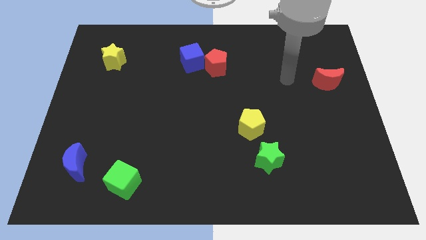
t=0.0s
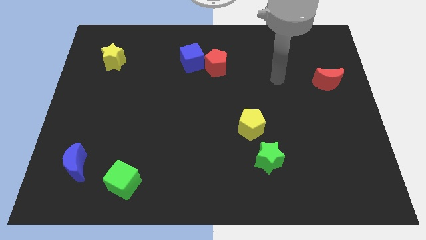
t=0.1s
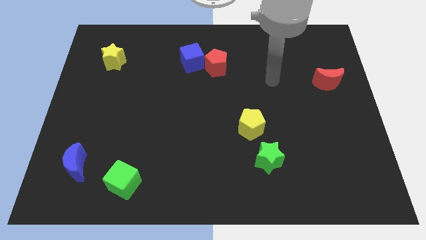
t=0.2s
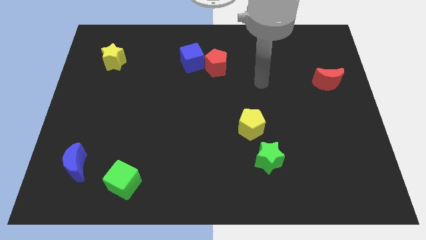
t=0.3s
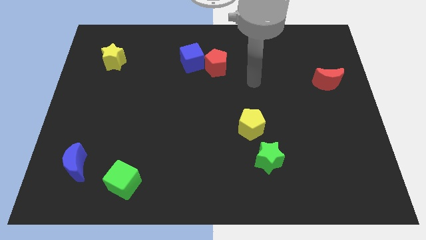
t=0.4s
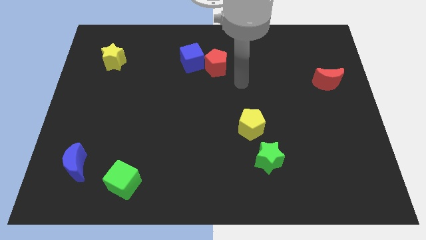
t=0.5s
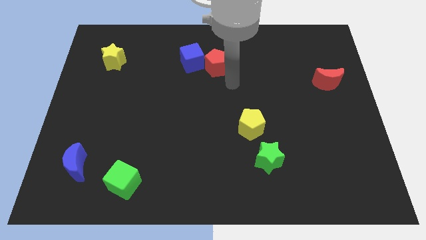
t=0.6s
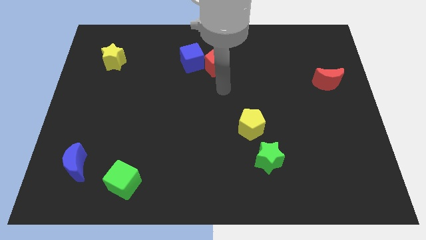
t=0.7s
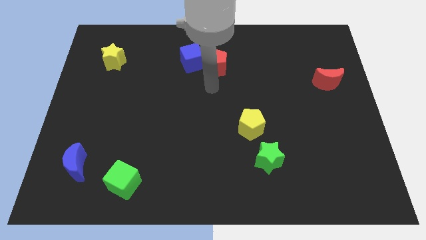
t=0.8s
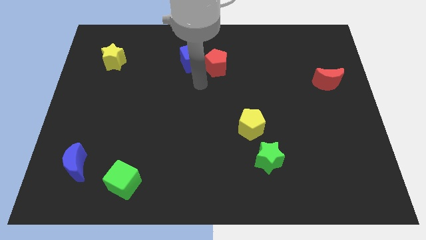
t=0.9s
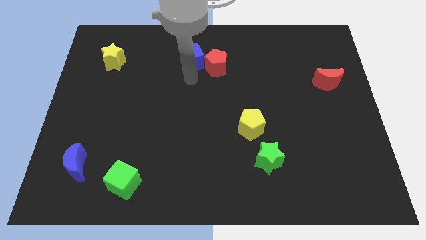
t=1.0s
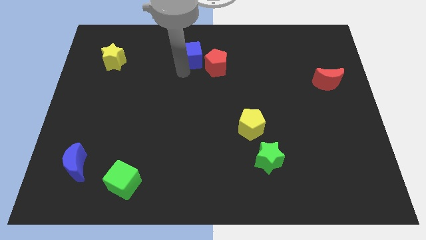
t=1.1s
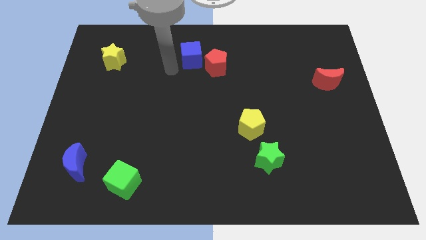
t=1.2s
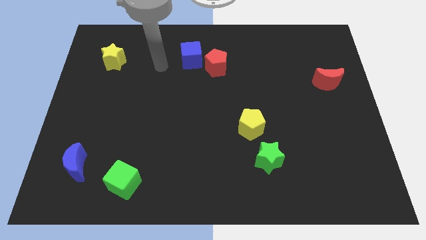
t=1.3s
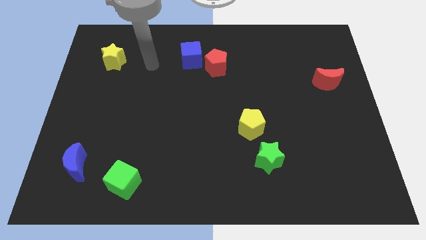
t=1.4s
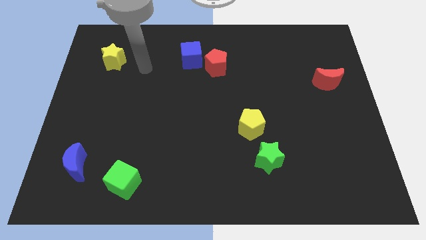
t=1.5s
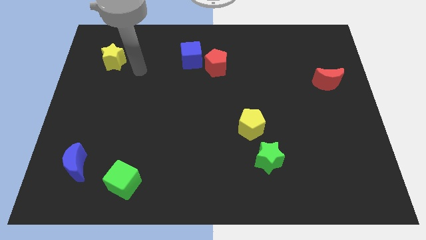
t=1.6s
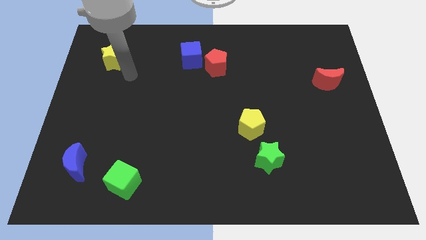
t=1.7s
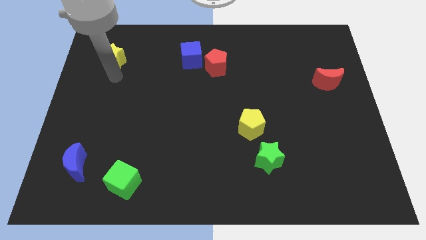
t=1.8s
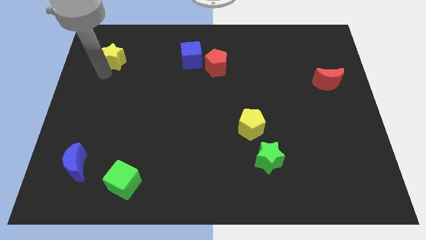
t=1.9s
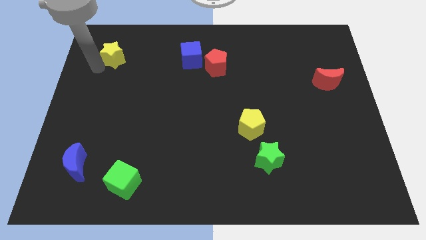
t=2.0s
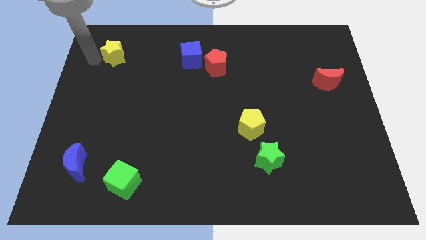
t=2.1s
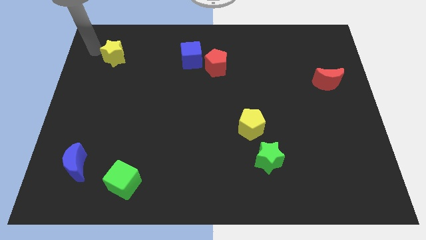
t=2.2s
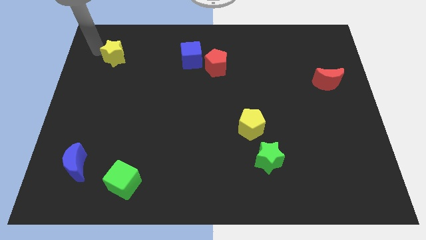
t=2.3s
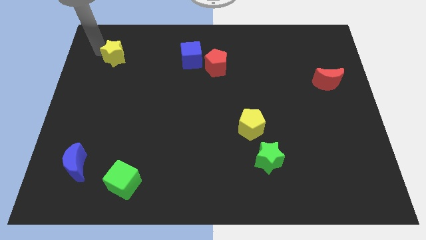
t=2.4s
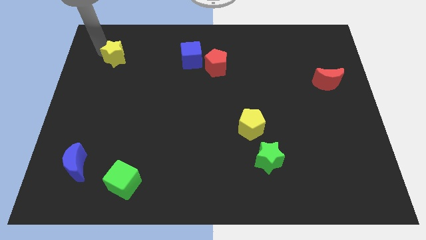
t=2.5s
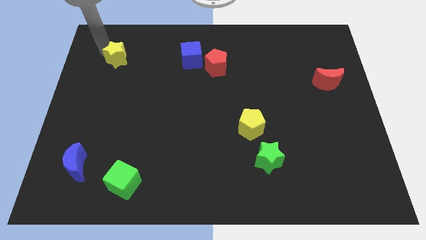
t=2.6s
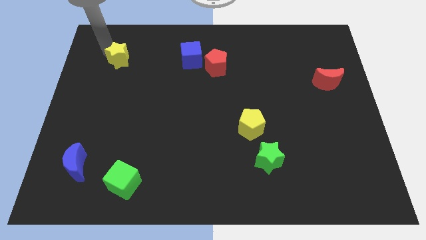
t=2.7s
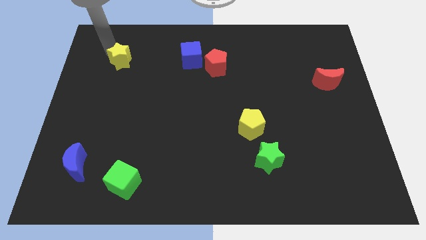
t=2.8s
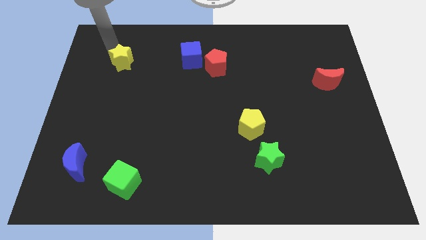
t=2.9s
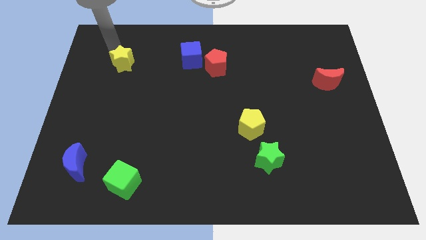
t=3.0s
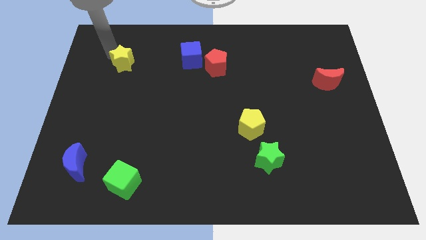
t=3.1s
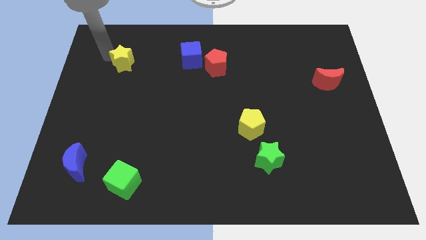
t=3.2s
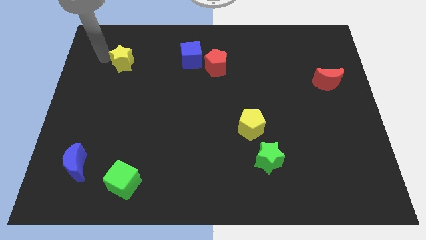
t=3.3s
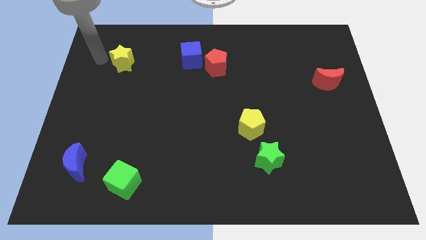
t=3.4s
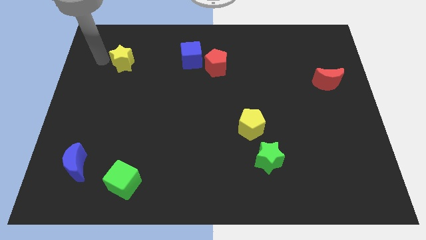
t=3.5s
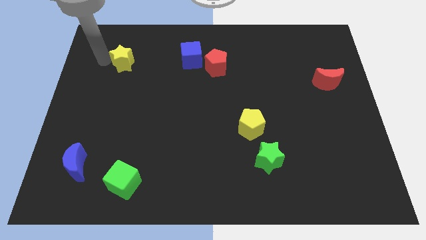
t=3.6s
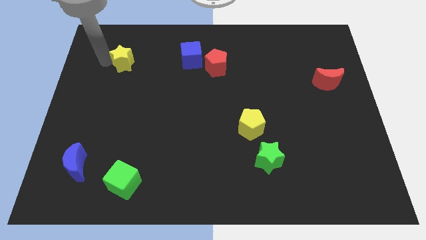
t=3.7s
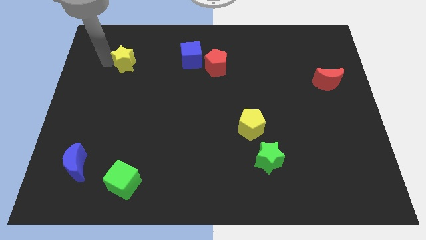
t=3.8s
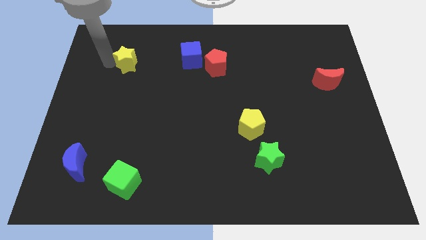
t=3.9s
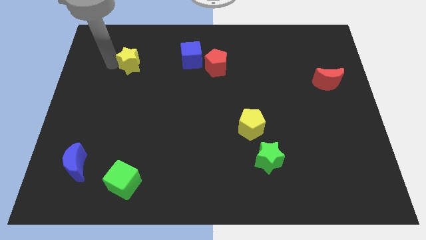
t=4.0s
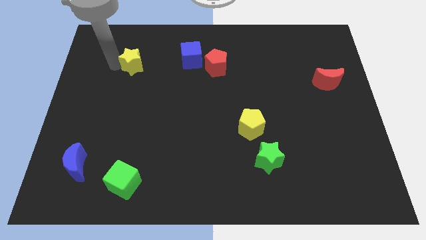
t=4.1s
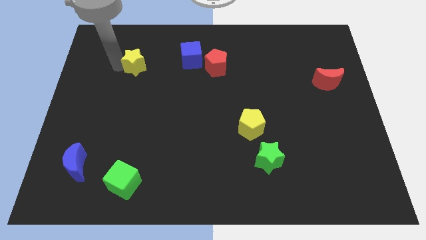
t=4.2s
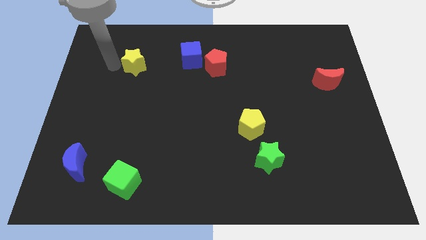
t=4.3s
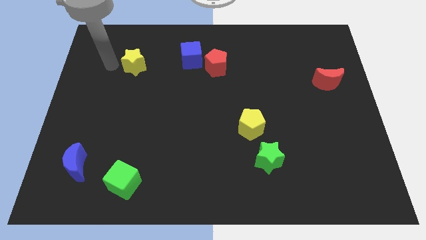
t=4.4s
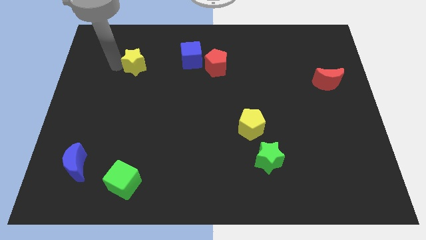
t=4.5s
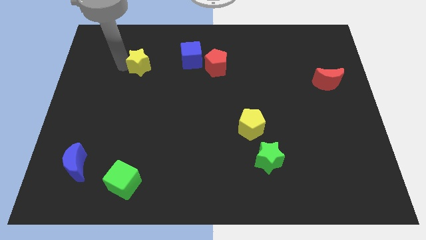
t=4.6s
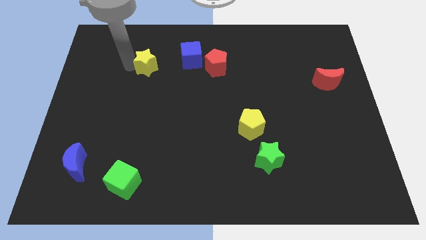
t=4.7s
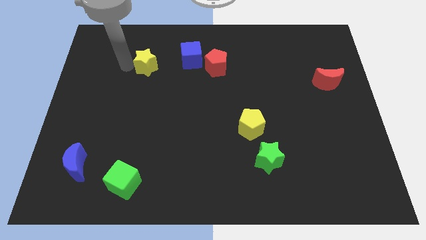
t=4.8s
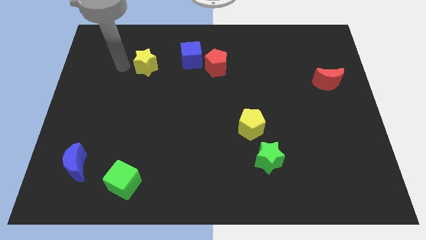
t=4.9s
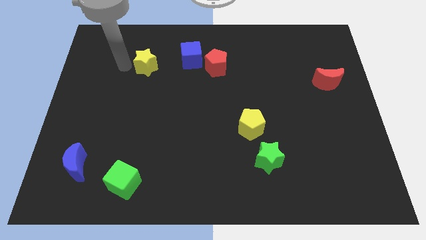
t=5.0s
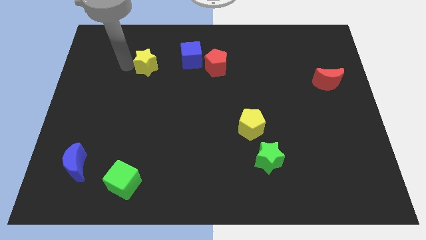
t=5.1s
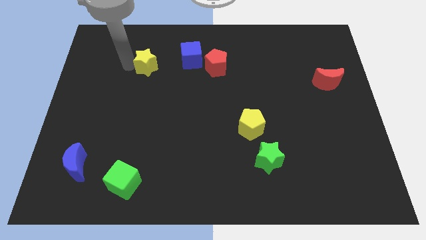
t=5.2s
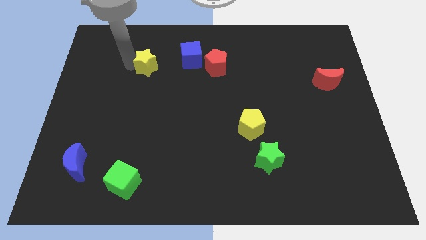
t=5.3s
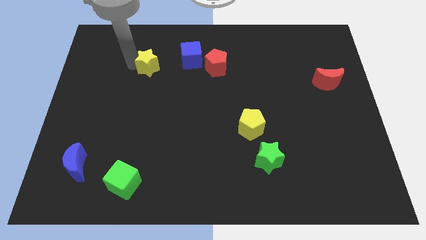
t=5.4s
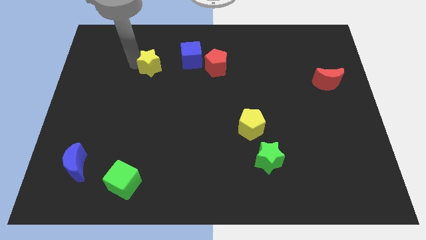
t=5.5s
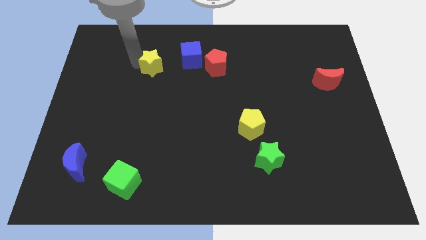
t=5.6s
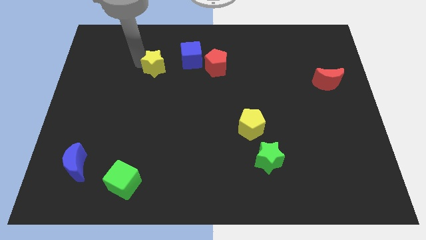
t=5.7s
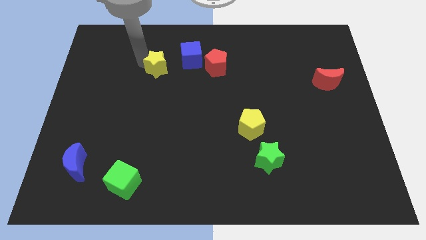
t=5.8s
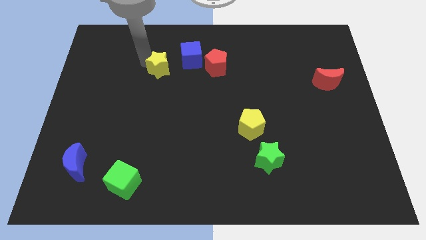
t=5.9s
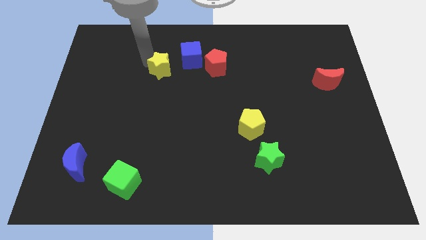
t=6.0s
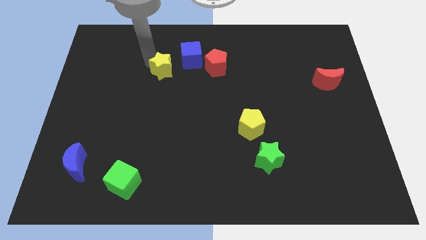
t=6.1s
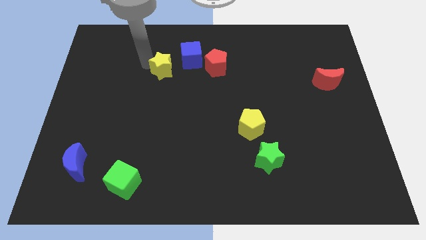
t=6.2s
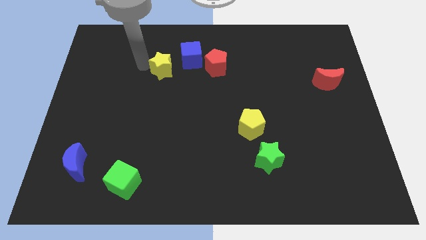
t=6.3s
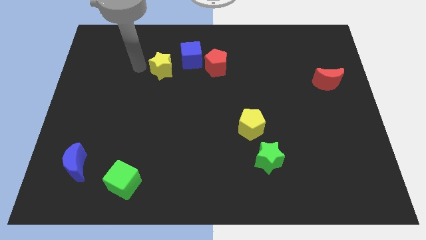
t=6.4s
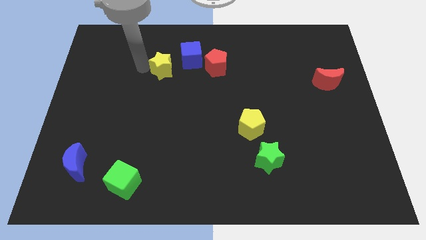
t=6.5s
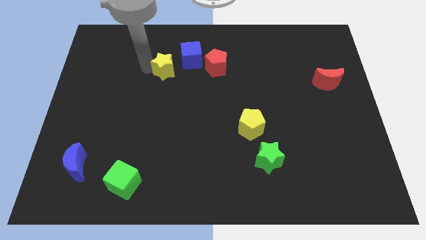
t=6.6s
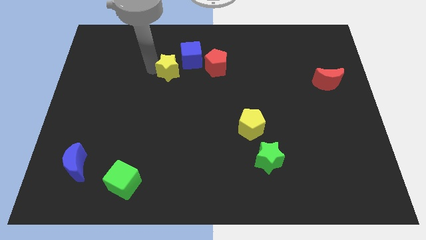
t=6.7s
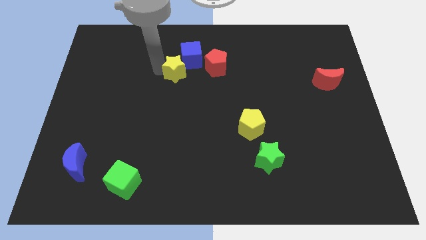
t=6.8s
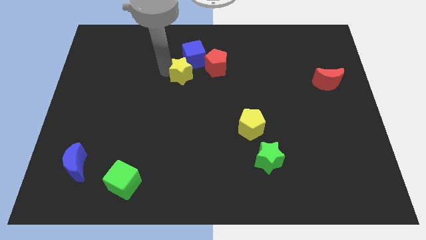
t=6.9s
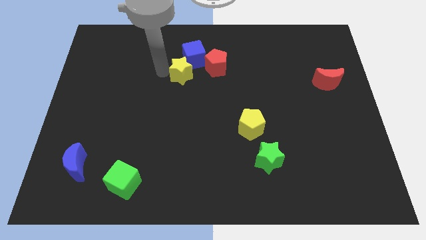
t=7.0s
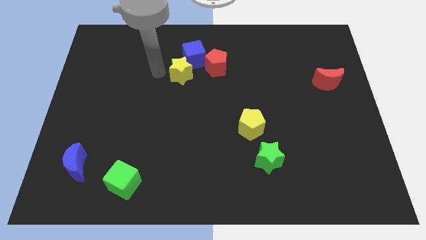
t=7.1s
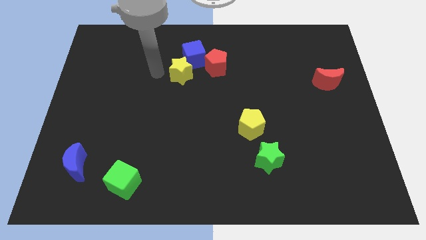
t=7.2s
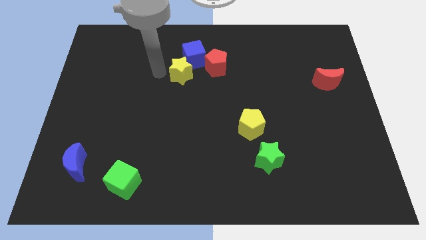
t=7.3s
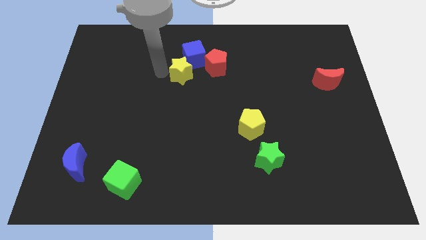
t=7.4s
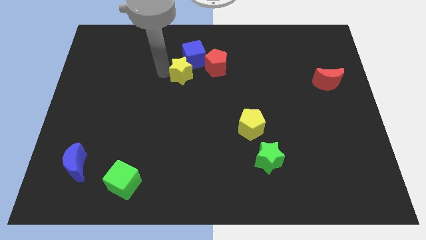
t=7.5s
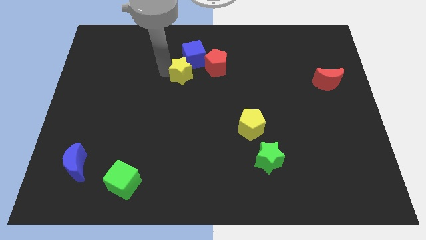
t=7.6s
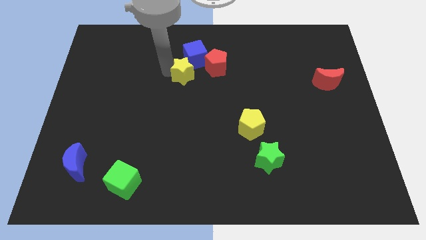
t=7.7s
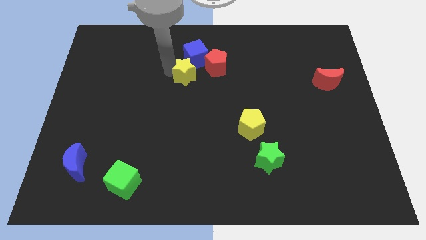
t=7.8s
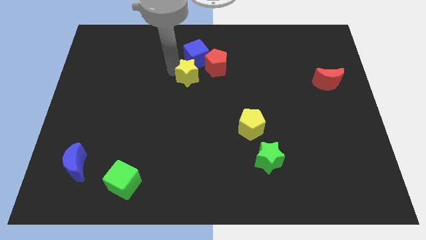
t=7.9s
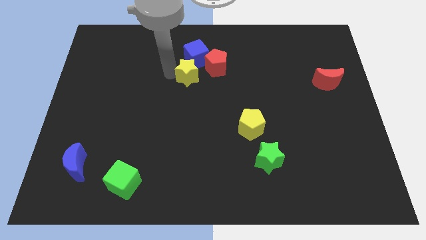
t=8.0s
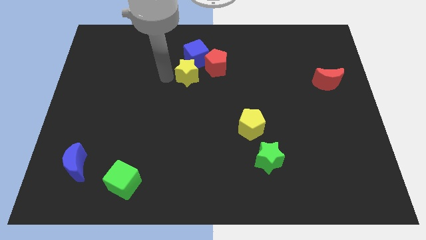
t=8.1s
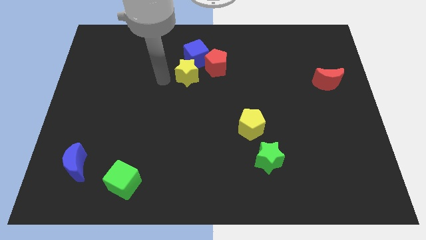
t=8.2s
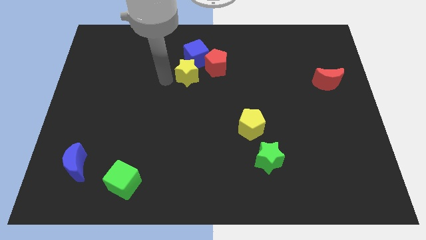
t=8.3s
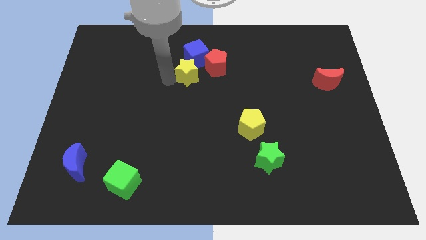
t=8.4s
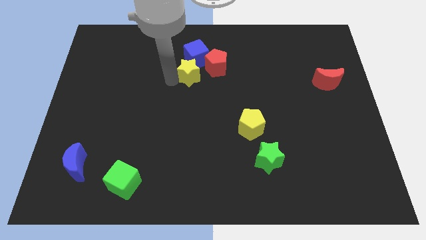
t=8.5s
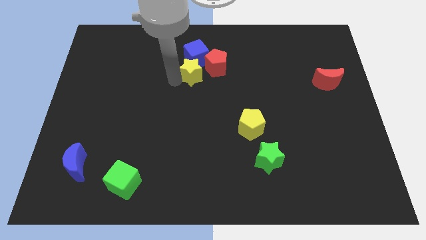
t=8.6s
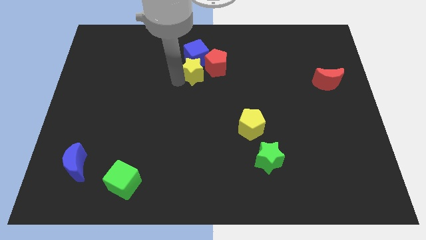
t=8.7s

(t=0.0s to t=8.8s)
move the yellow star to the bottom right of the blue cube
